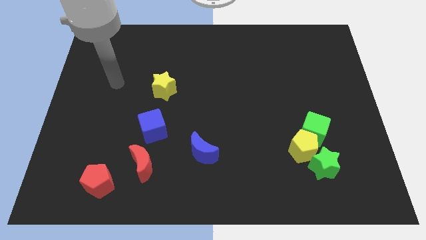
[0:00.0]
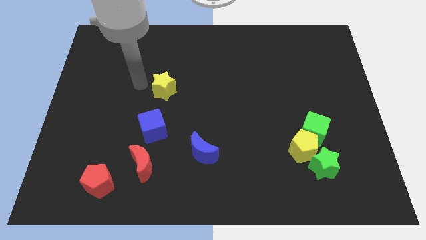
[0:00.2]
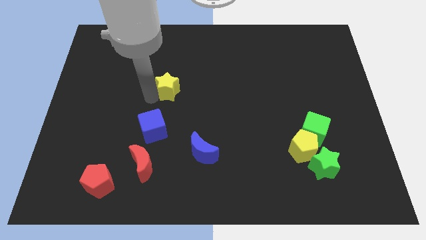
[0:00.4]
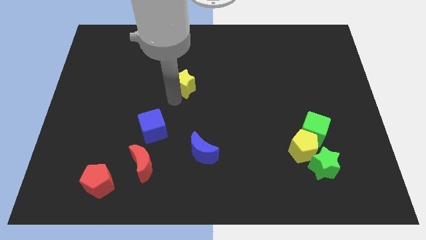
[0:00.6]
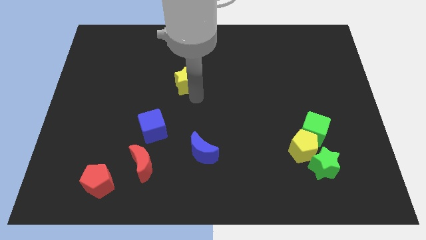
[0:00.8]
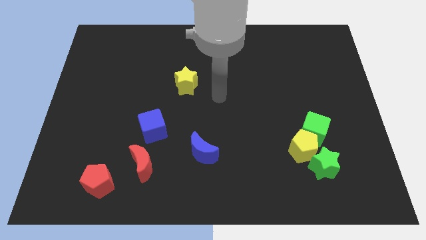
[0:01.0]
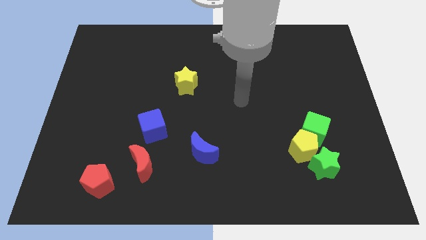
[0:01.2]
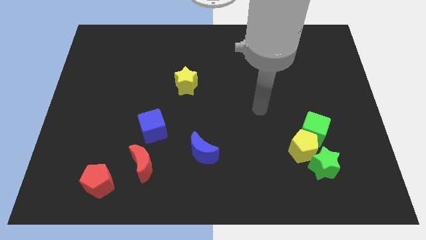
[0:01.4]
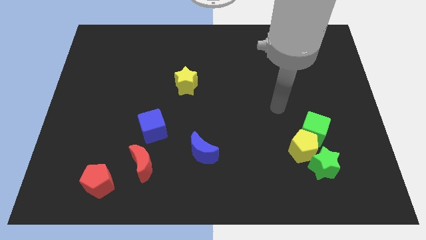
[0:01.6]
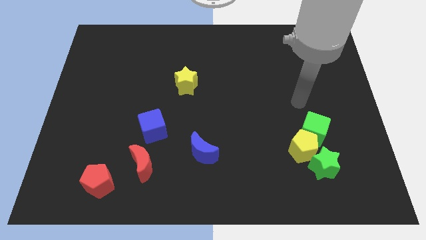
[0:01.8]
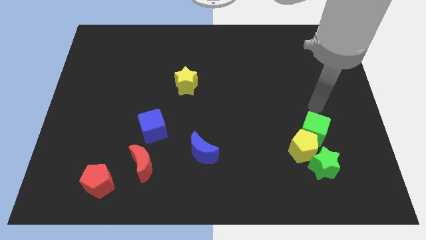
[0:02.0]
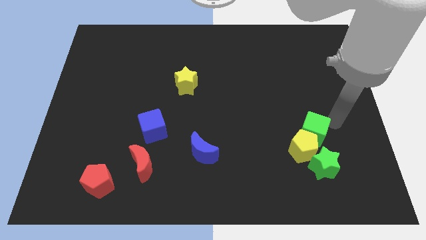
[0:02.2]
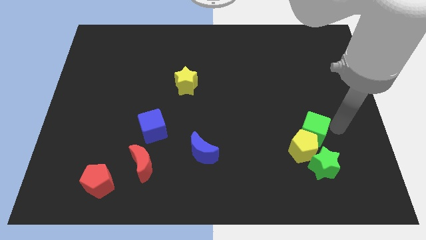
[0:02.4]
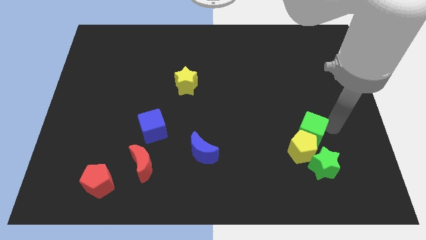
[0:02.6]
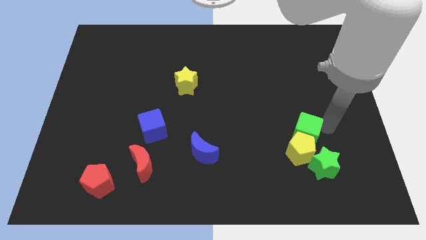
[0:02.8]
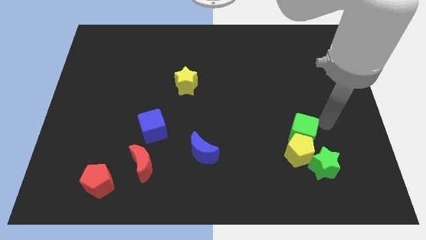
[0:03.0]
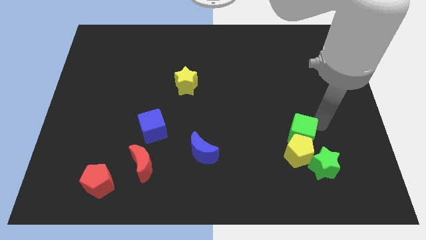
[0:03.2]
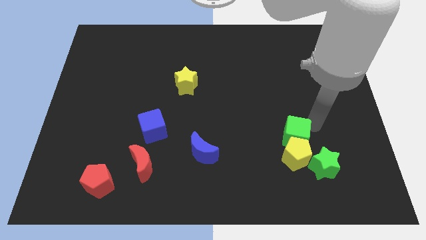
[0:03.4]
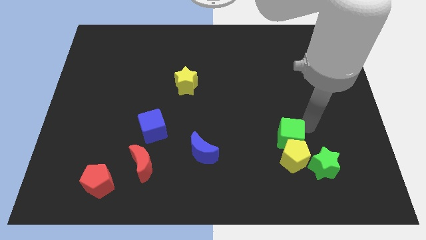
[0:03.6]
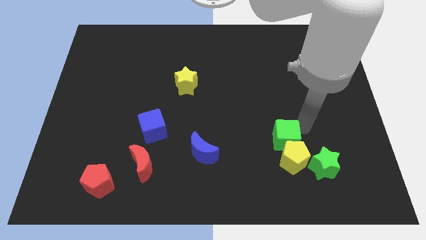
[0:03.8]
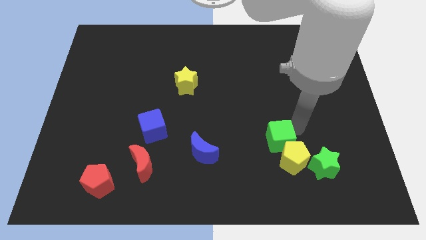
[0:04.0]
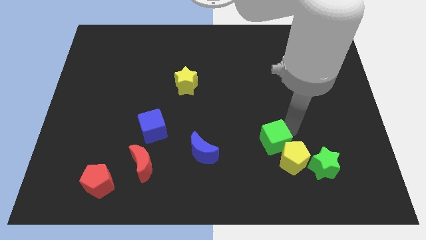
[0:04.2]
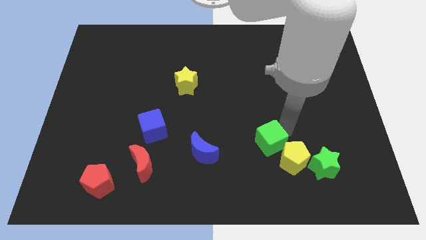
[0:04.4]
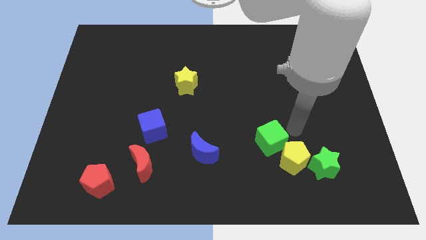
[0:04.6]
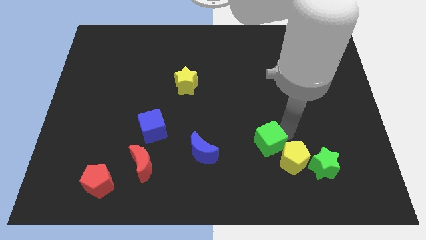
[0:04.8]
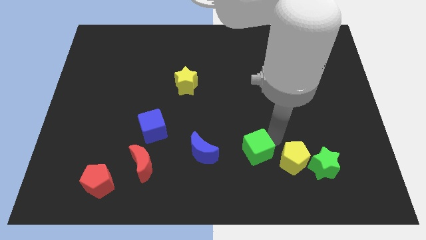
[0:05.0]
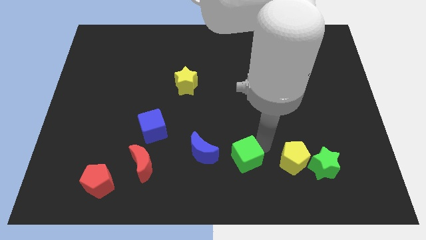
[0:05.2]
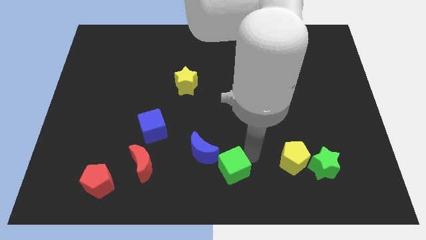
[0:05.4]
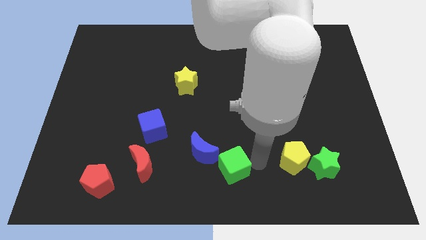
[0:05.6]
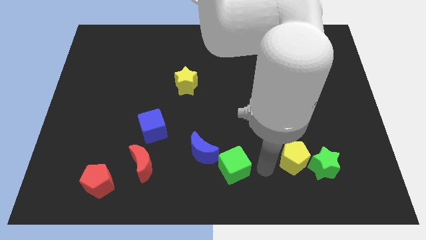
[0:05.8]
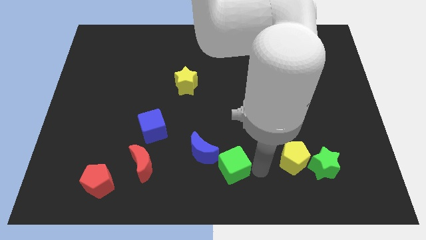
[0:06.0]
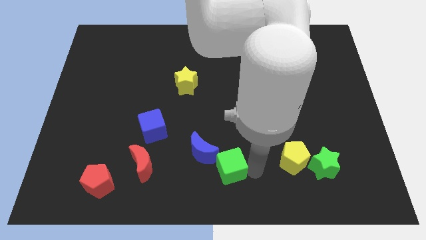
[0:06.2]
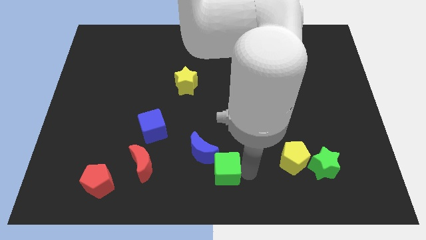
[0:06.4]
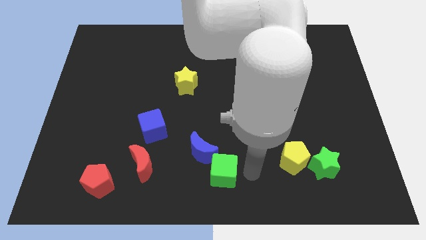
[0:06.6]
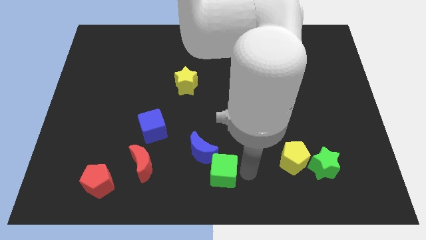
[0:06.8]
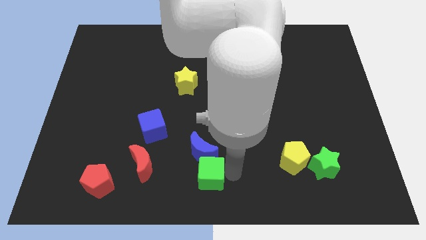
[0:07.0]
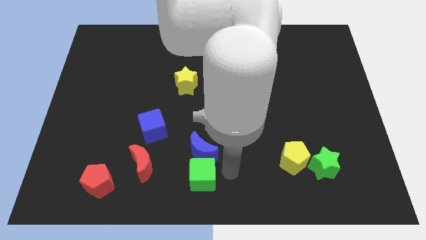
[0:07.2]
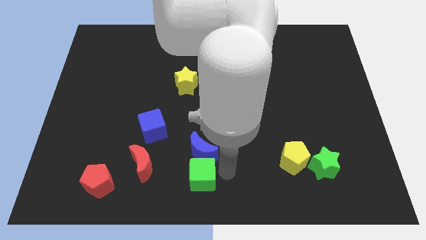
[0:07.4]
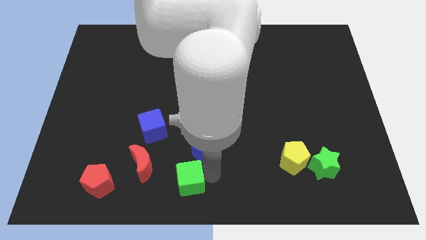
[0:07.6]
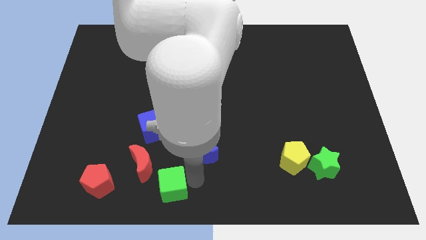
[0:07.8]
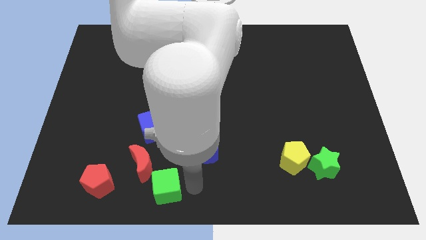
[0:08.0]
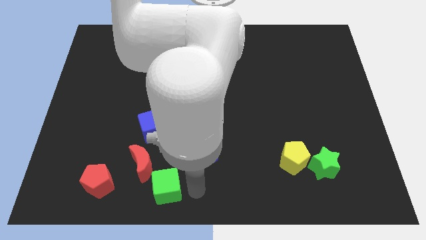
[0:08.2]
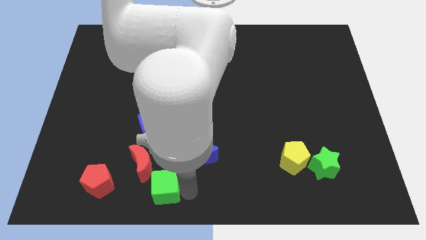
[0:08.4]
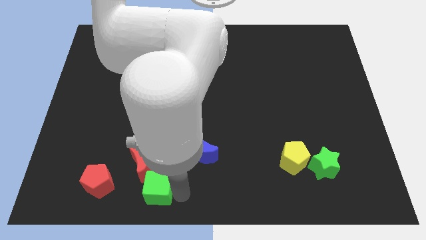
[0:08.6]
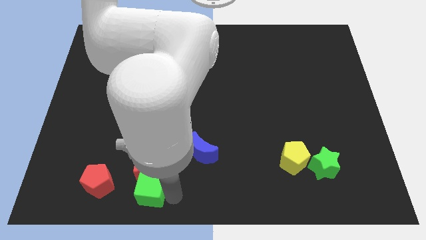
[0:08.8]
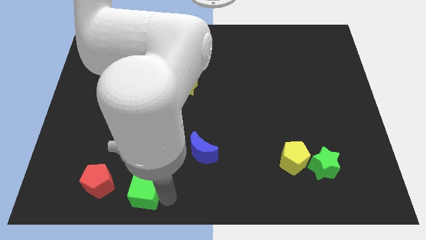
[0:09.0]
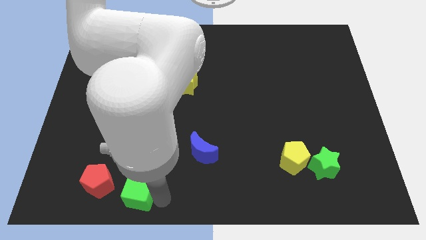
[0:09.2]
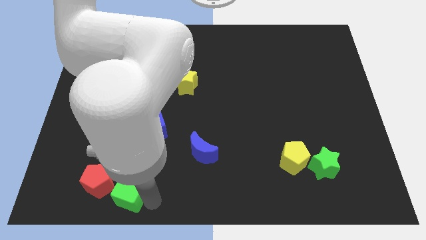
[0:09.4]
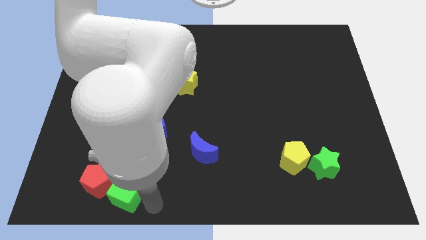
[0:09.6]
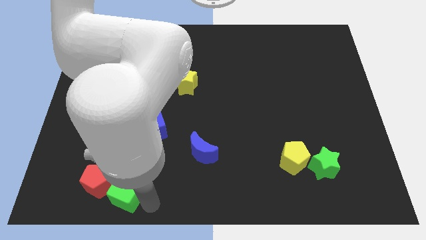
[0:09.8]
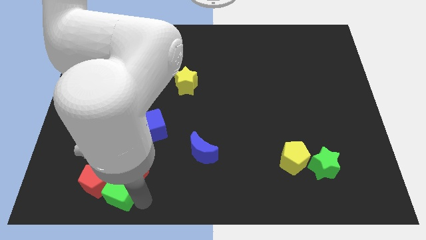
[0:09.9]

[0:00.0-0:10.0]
push the green cube next to the red pentagon

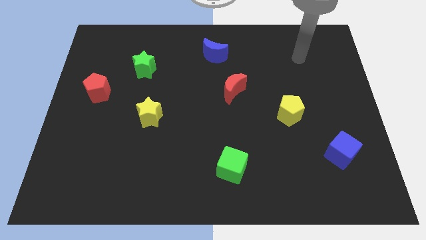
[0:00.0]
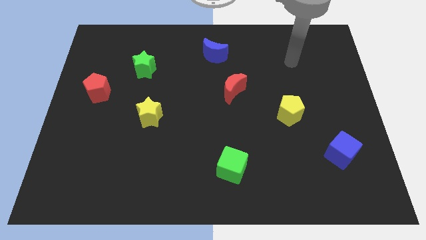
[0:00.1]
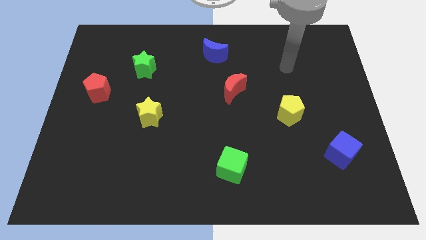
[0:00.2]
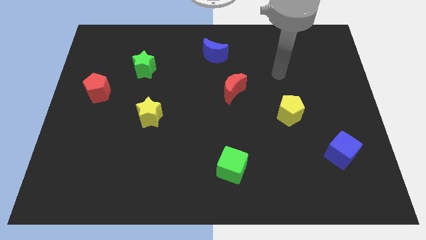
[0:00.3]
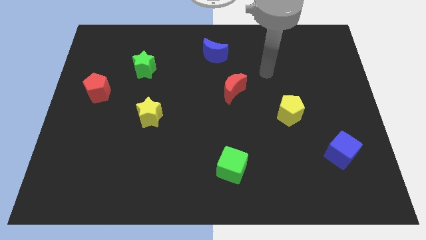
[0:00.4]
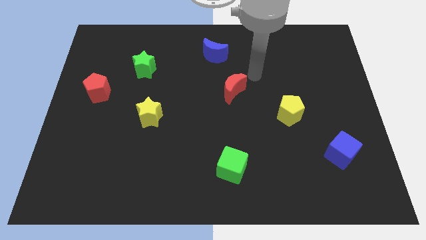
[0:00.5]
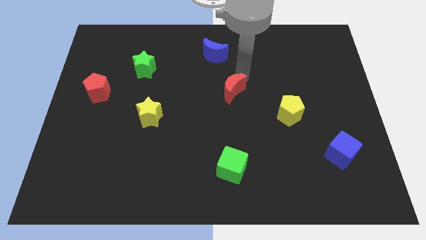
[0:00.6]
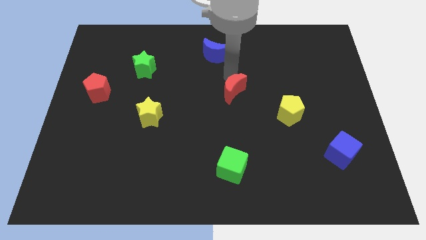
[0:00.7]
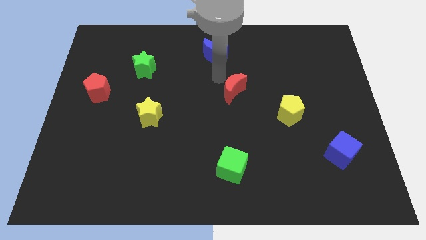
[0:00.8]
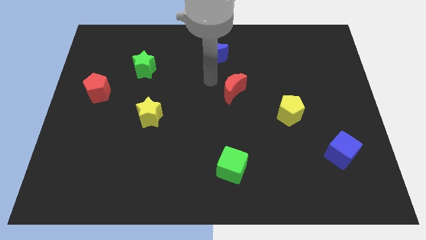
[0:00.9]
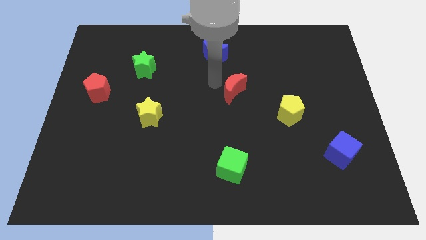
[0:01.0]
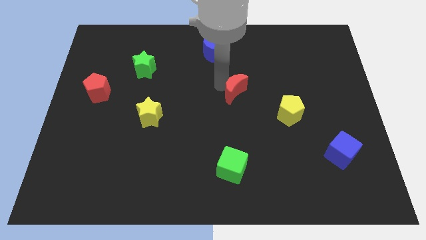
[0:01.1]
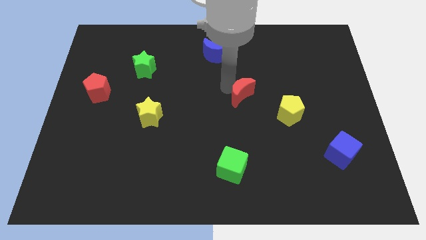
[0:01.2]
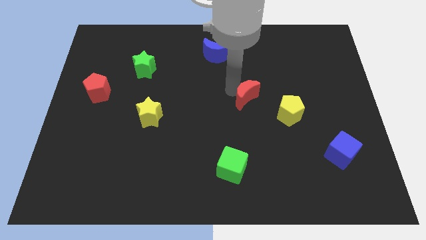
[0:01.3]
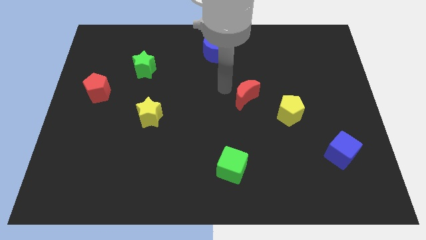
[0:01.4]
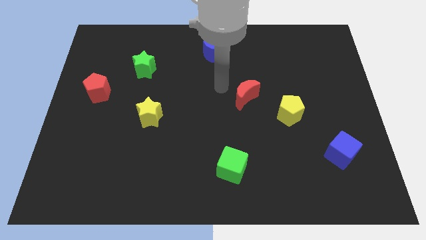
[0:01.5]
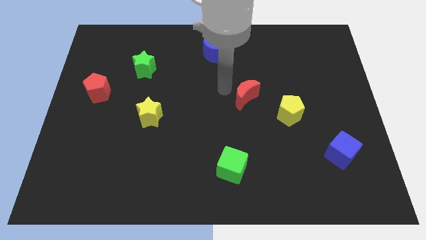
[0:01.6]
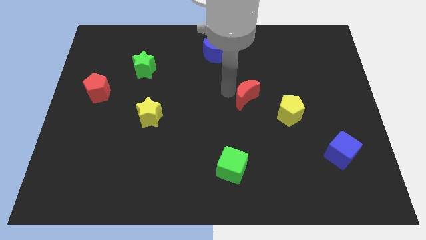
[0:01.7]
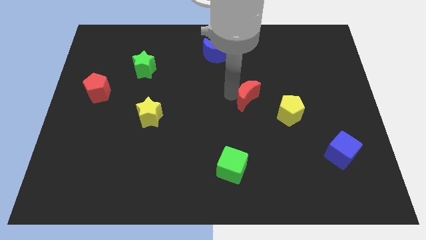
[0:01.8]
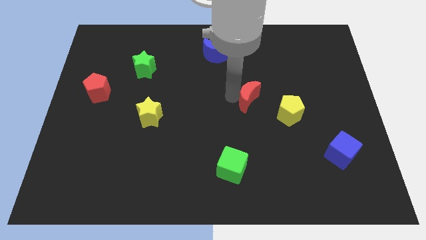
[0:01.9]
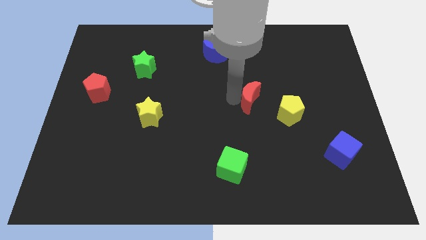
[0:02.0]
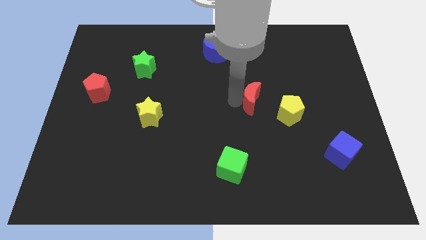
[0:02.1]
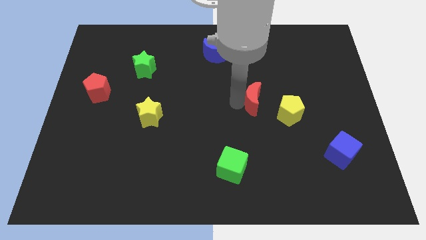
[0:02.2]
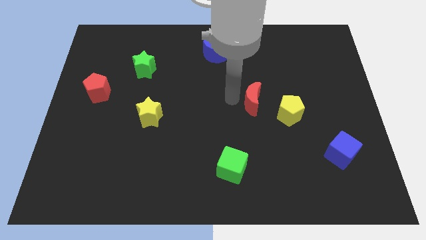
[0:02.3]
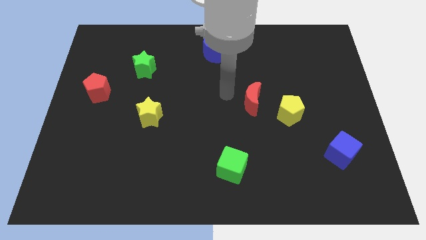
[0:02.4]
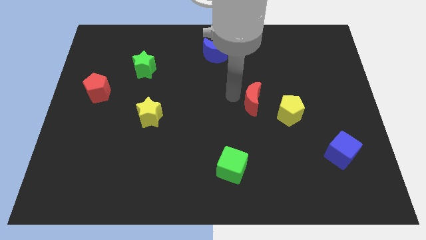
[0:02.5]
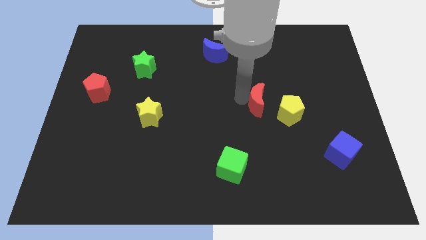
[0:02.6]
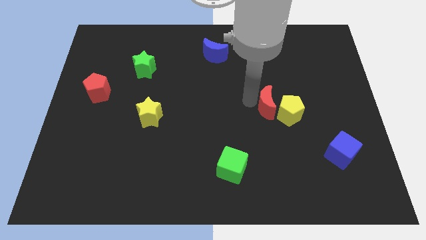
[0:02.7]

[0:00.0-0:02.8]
put the red moon close to the yellow pentagon
